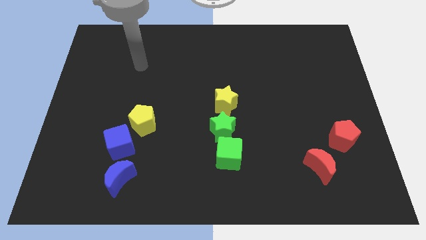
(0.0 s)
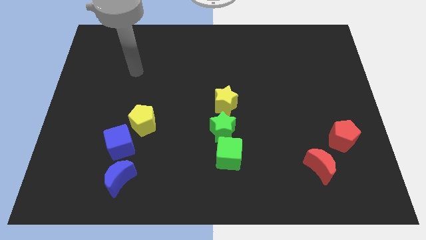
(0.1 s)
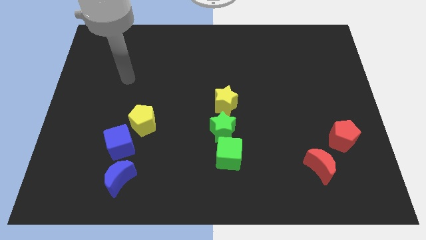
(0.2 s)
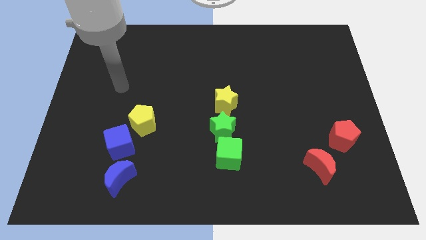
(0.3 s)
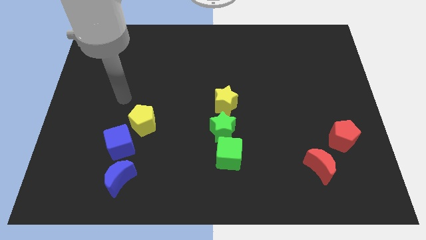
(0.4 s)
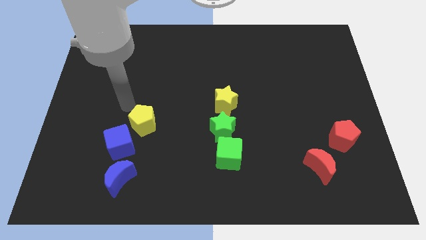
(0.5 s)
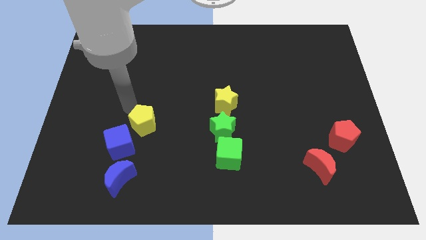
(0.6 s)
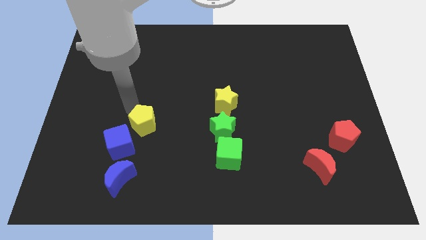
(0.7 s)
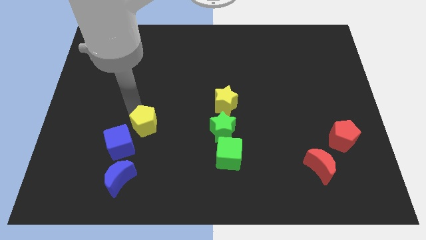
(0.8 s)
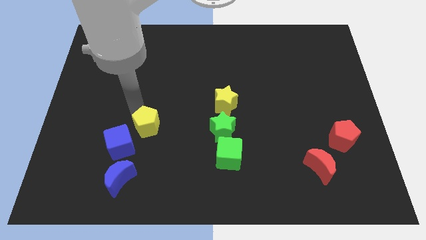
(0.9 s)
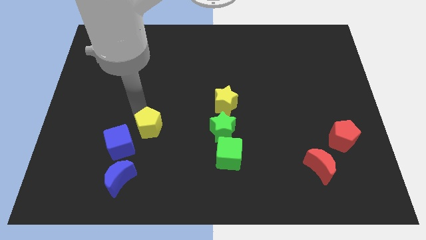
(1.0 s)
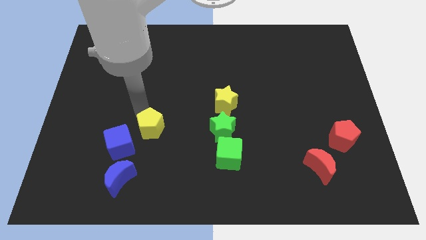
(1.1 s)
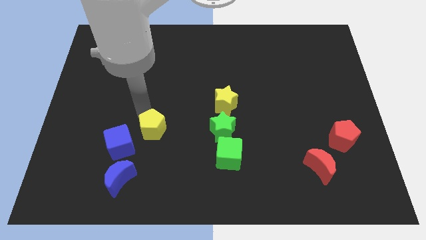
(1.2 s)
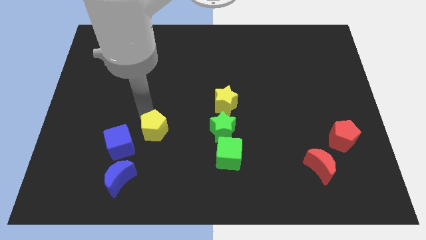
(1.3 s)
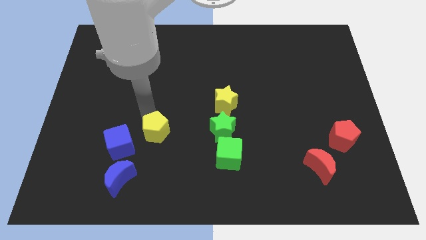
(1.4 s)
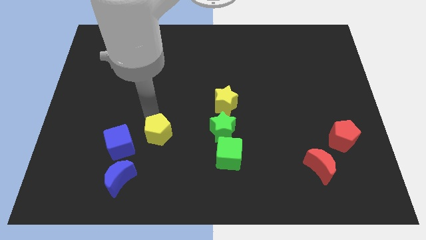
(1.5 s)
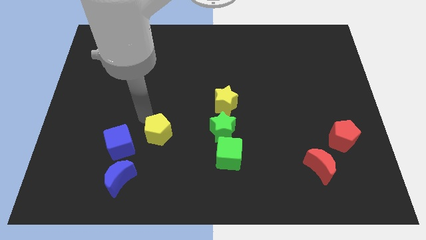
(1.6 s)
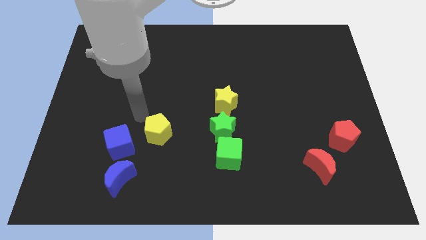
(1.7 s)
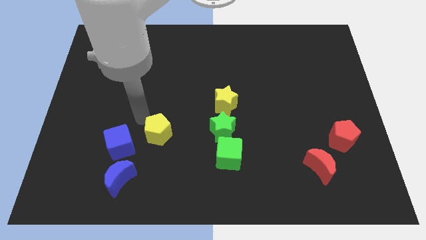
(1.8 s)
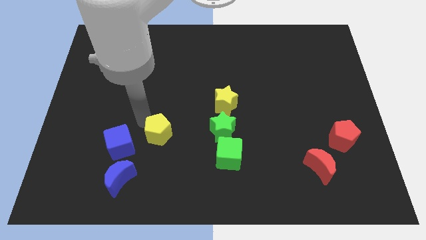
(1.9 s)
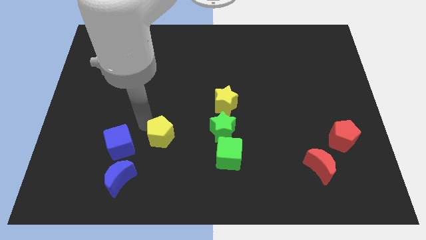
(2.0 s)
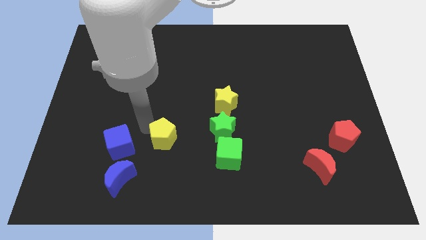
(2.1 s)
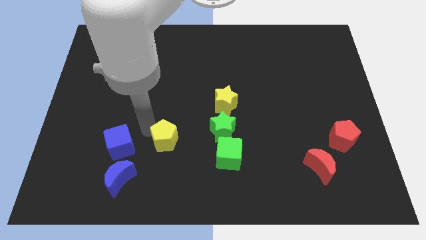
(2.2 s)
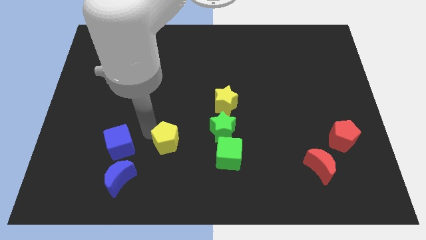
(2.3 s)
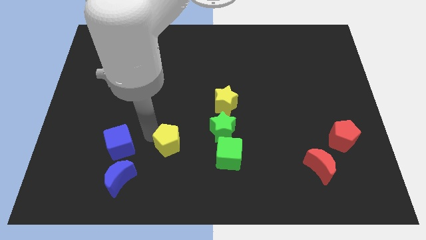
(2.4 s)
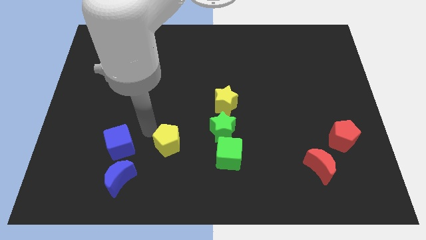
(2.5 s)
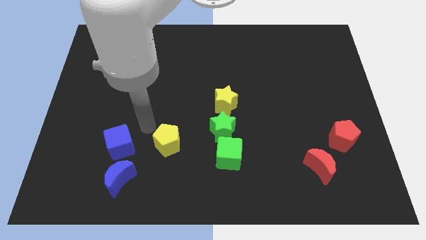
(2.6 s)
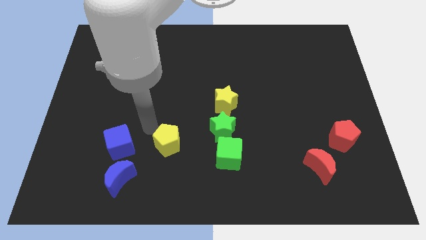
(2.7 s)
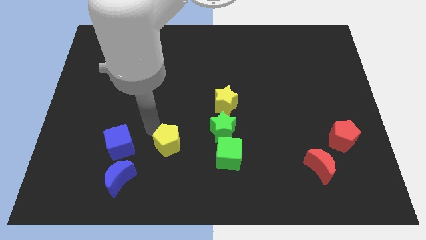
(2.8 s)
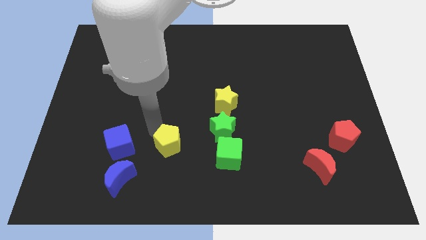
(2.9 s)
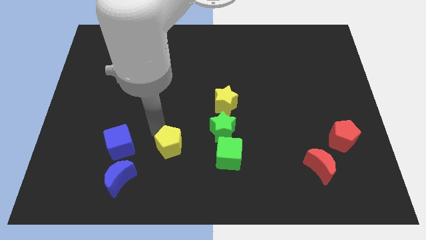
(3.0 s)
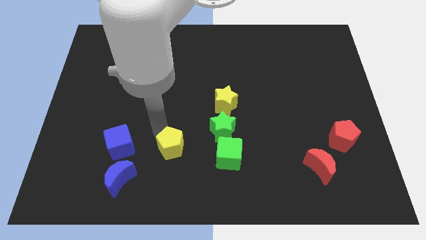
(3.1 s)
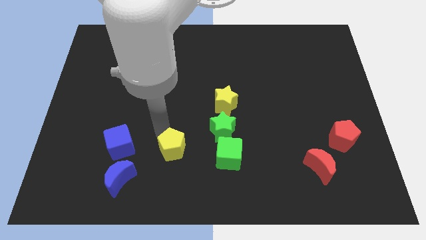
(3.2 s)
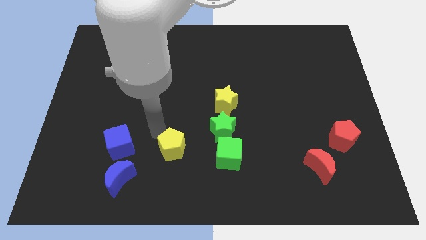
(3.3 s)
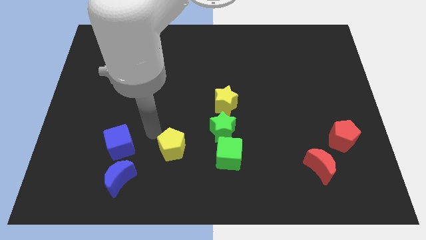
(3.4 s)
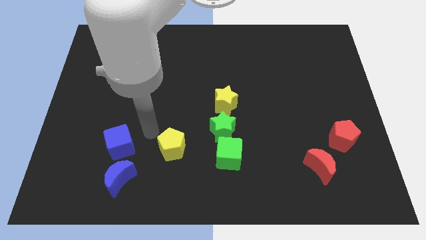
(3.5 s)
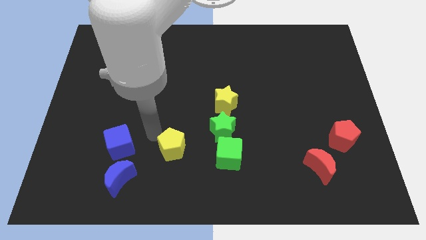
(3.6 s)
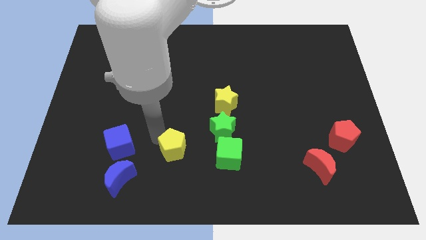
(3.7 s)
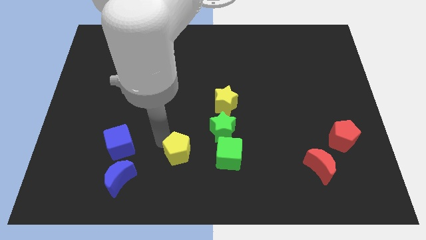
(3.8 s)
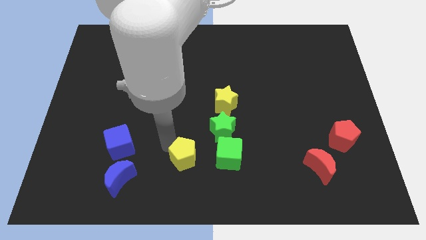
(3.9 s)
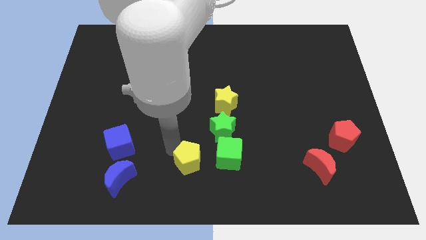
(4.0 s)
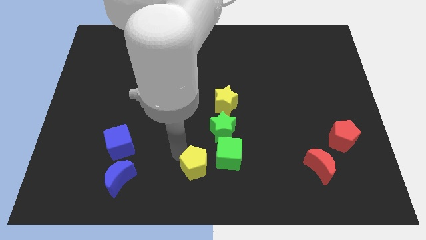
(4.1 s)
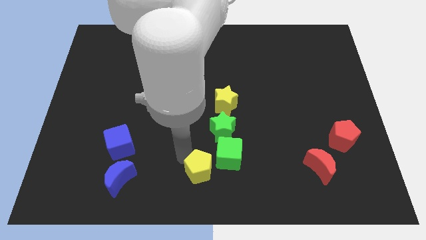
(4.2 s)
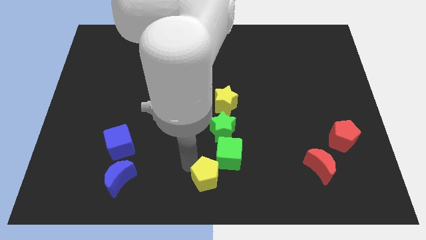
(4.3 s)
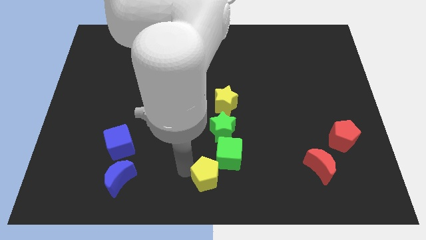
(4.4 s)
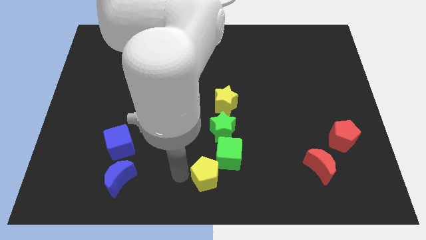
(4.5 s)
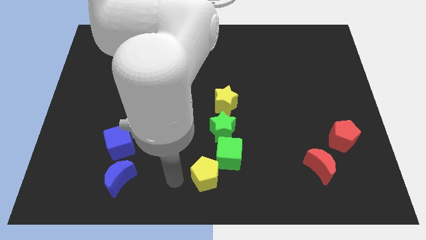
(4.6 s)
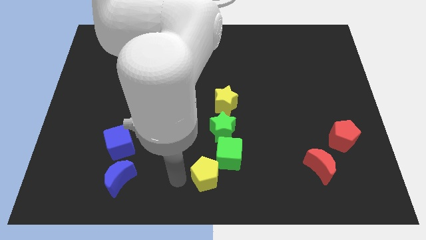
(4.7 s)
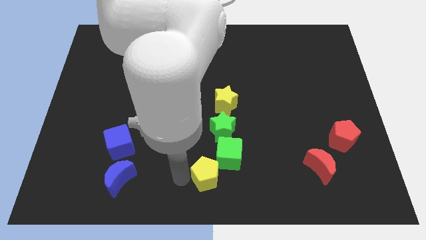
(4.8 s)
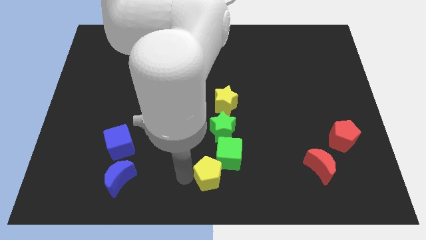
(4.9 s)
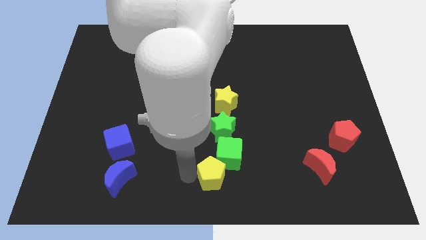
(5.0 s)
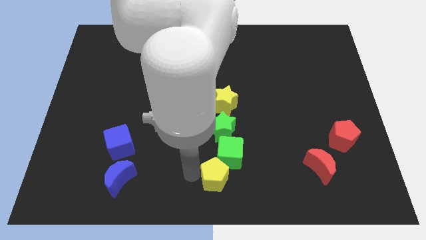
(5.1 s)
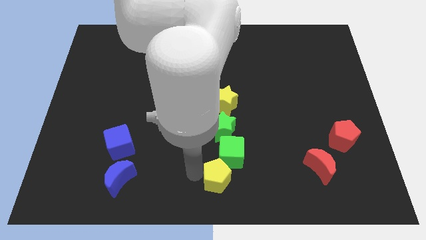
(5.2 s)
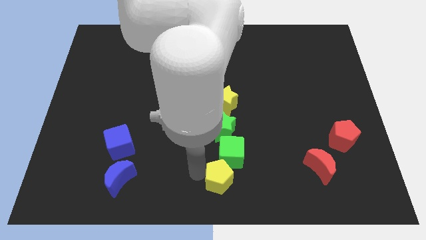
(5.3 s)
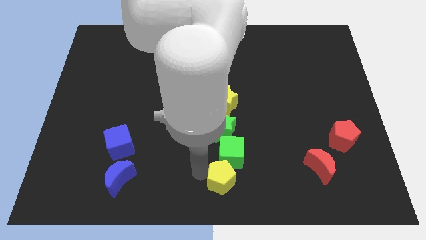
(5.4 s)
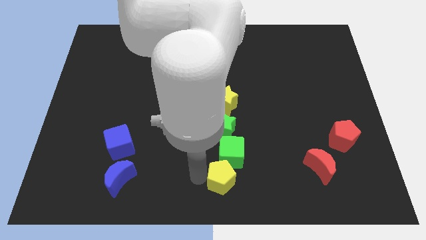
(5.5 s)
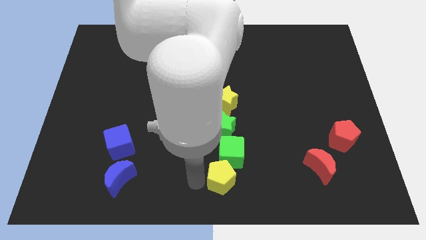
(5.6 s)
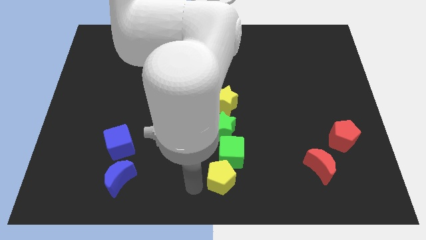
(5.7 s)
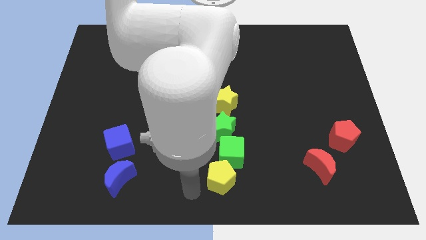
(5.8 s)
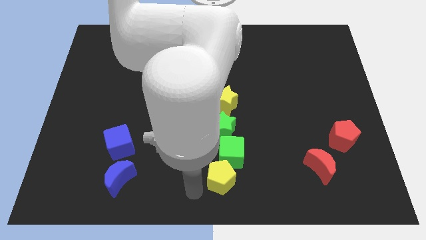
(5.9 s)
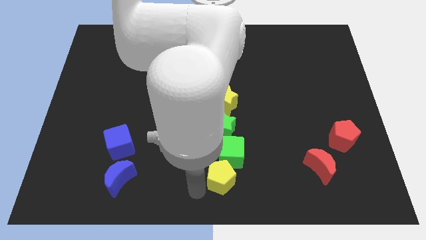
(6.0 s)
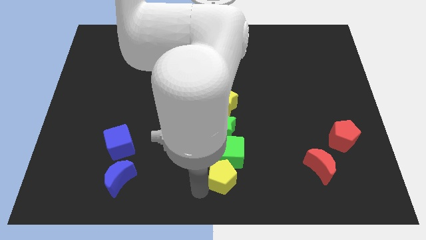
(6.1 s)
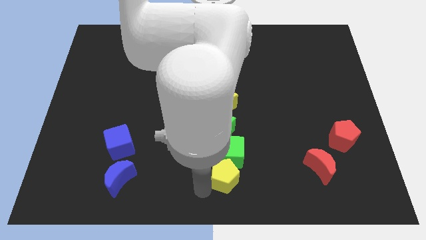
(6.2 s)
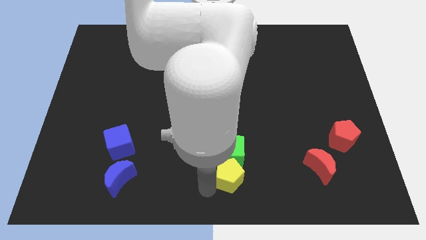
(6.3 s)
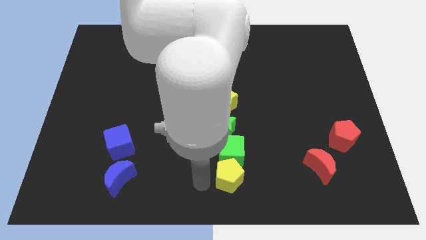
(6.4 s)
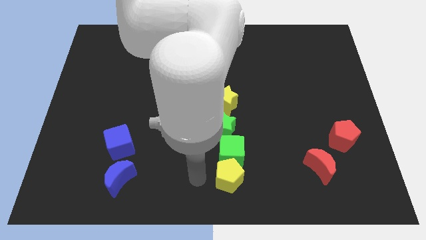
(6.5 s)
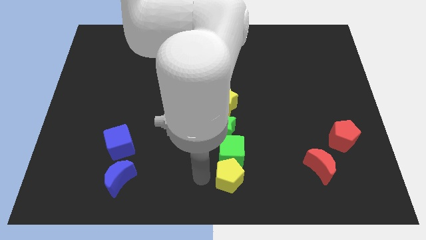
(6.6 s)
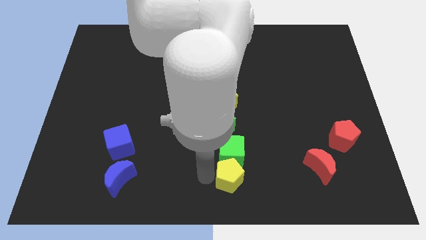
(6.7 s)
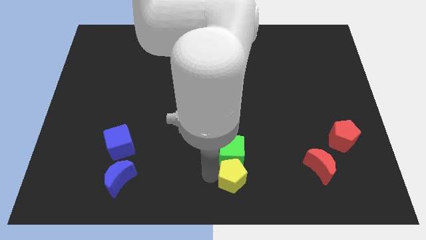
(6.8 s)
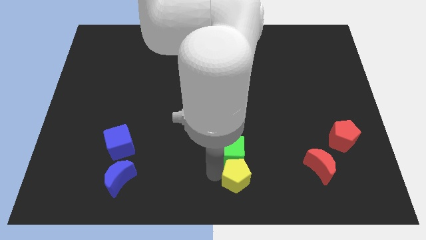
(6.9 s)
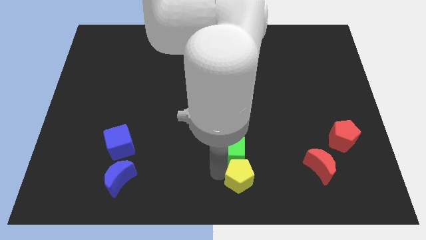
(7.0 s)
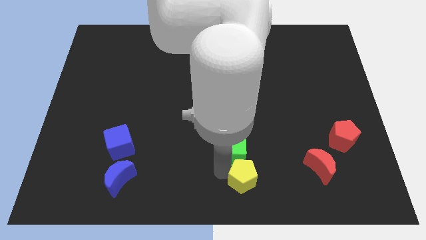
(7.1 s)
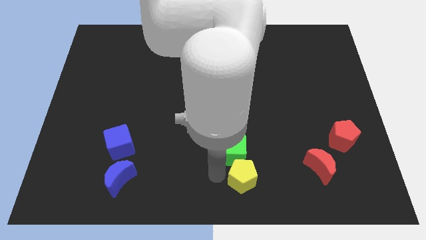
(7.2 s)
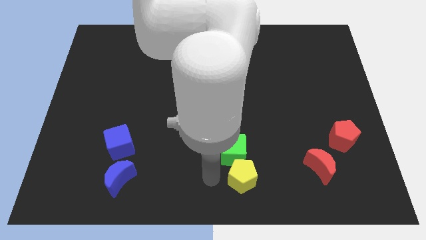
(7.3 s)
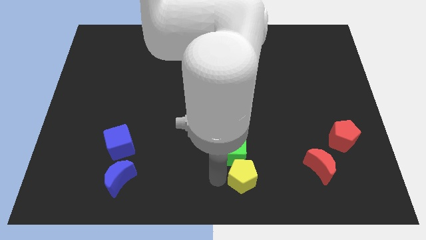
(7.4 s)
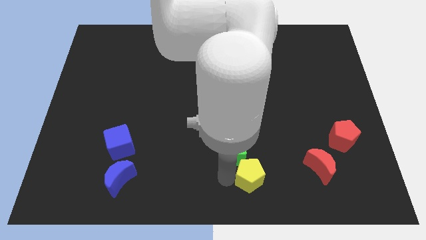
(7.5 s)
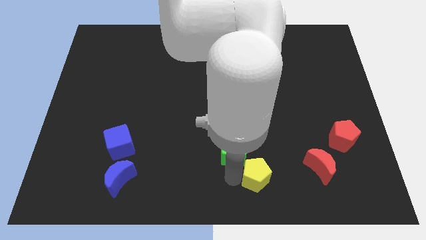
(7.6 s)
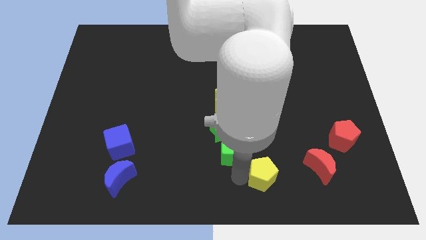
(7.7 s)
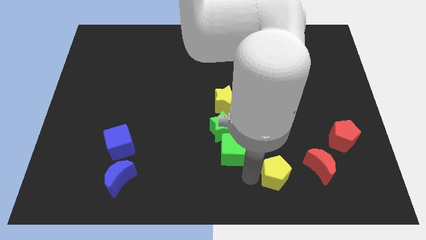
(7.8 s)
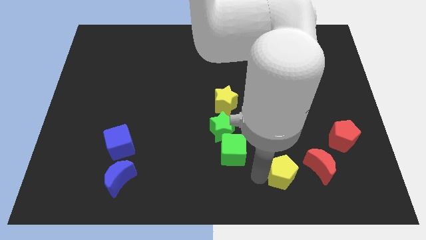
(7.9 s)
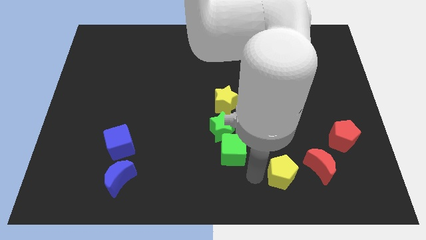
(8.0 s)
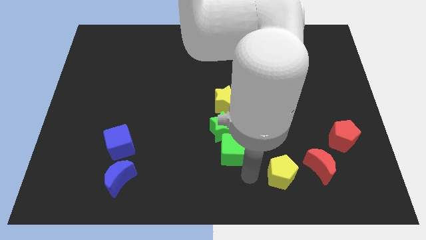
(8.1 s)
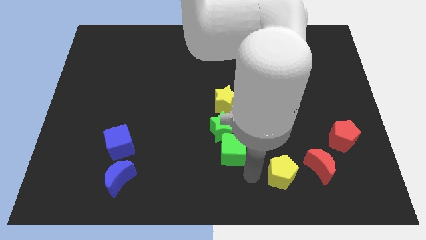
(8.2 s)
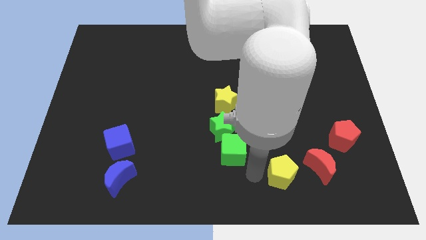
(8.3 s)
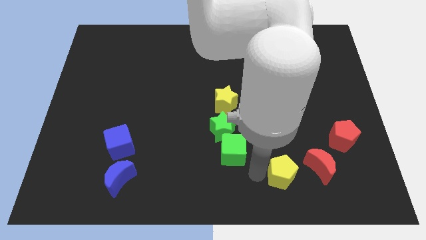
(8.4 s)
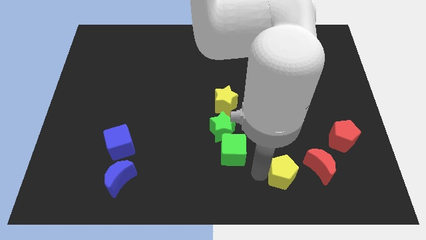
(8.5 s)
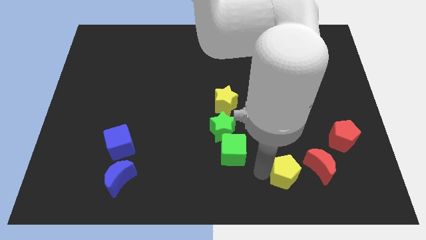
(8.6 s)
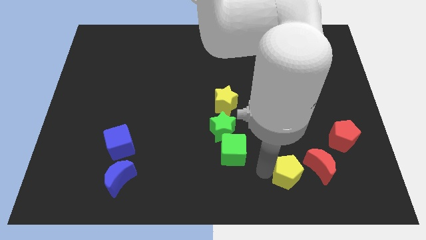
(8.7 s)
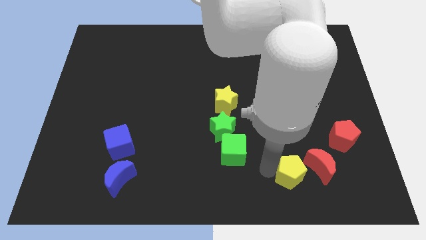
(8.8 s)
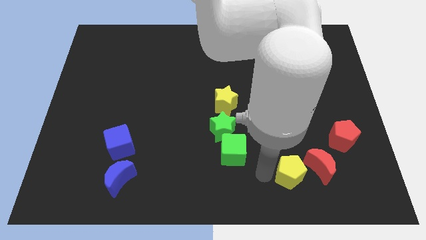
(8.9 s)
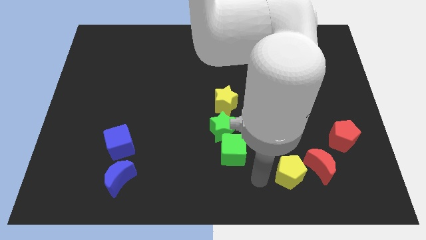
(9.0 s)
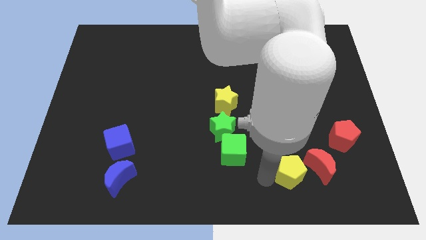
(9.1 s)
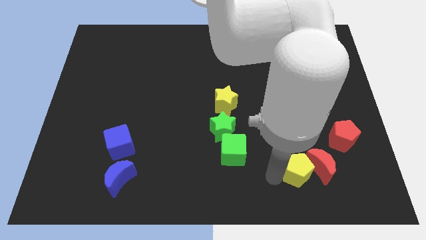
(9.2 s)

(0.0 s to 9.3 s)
slide the yellow pentagon to the red moon
